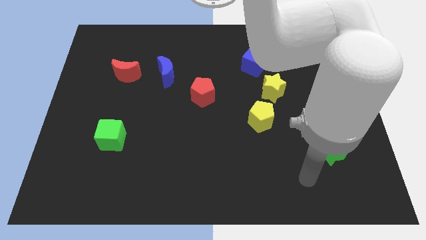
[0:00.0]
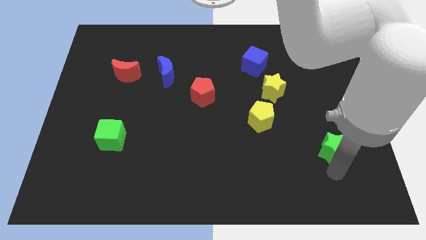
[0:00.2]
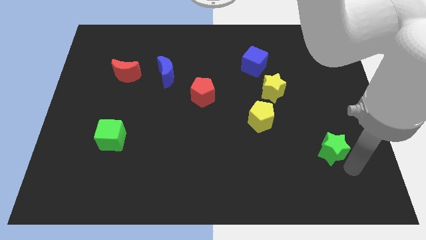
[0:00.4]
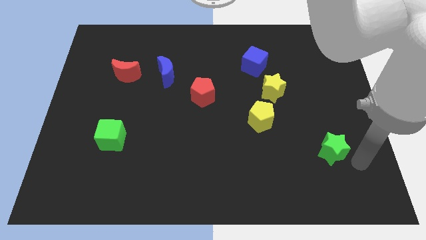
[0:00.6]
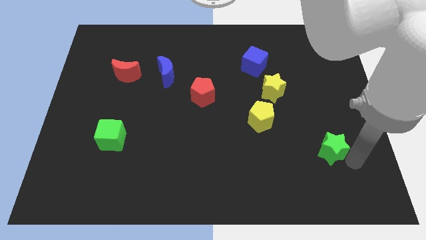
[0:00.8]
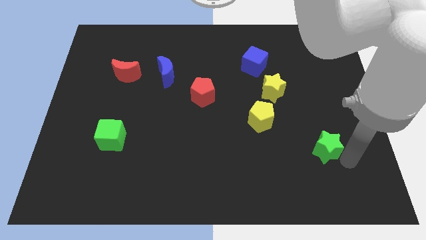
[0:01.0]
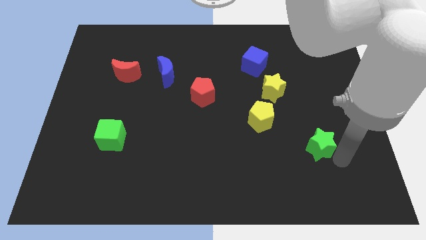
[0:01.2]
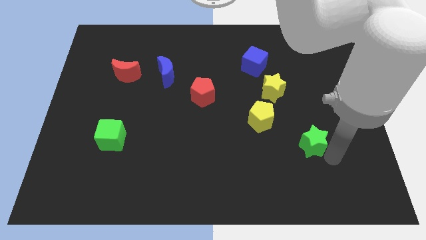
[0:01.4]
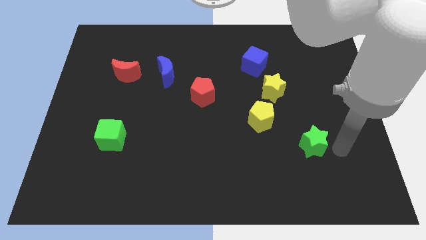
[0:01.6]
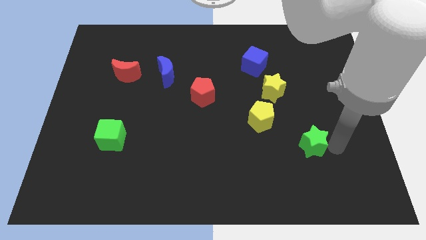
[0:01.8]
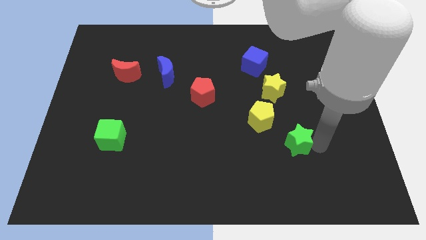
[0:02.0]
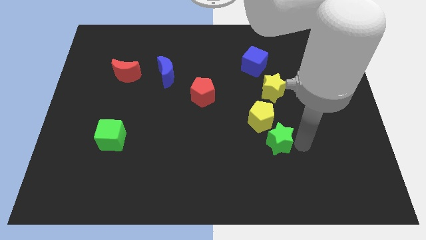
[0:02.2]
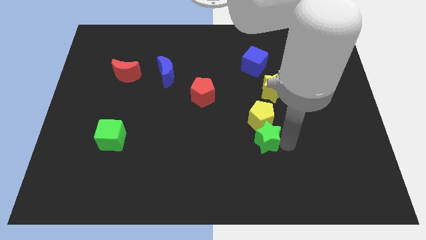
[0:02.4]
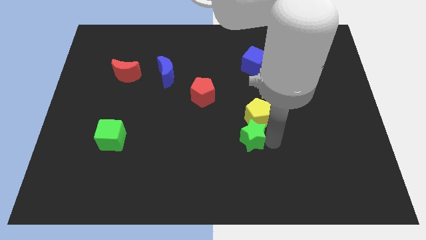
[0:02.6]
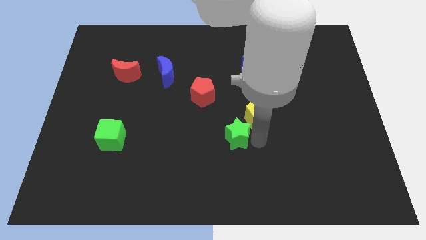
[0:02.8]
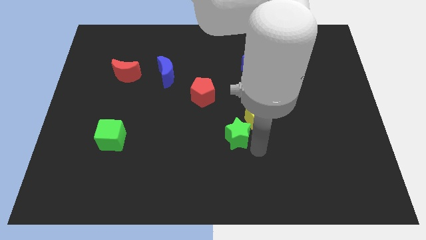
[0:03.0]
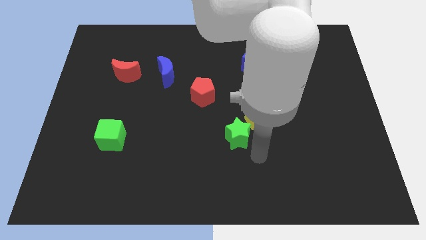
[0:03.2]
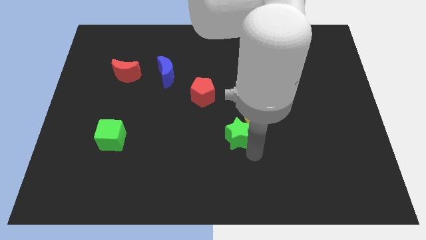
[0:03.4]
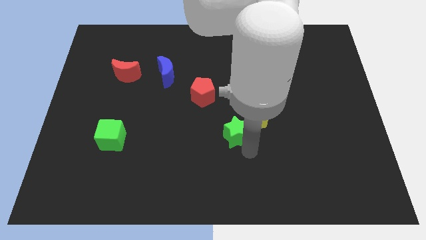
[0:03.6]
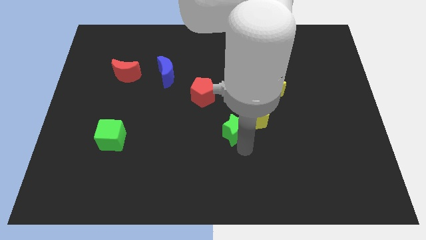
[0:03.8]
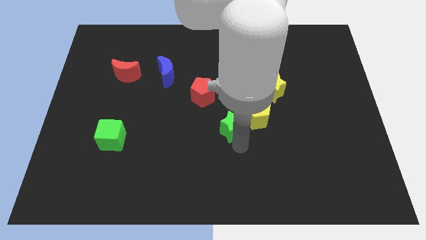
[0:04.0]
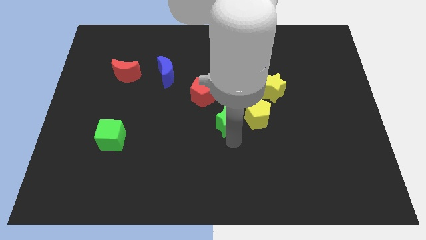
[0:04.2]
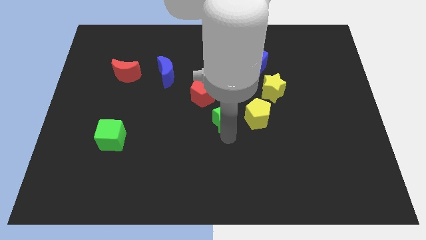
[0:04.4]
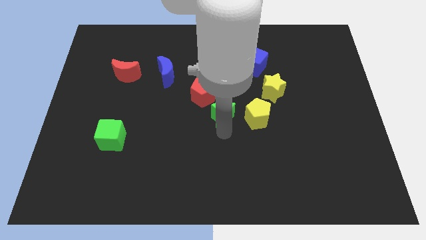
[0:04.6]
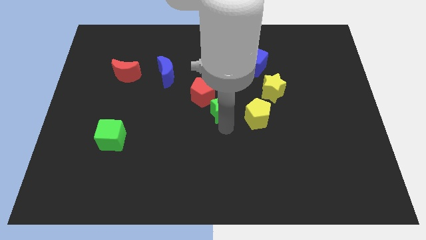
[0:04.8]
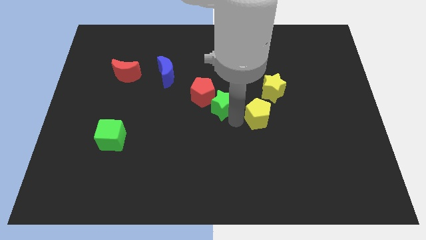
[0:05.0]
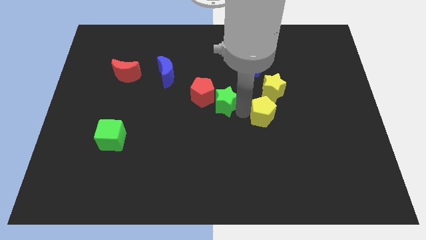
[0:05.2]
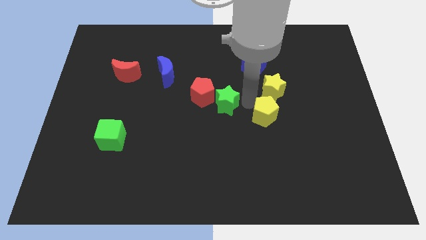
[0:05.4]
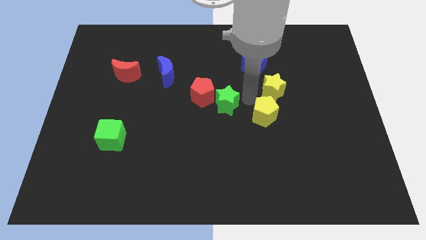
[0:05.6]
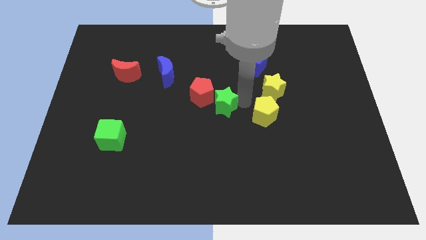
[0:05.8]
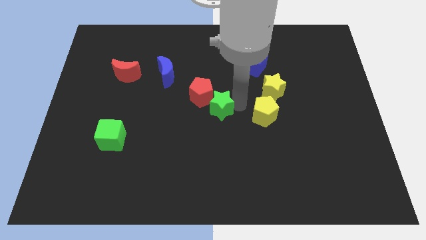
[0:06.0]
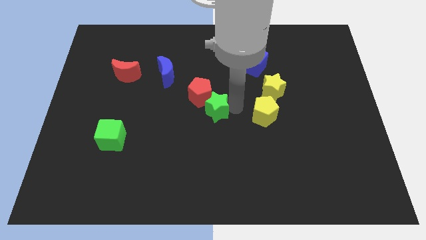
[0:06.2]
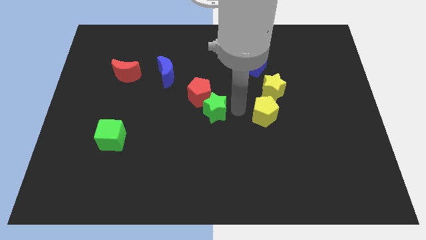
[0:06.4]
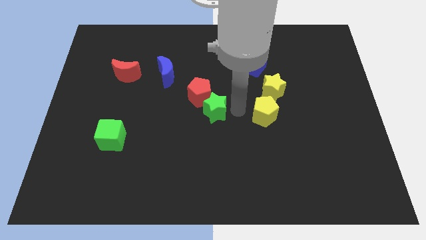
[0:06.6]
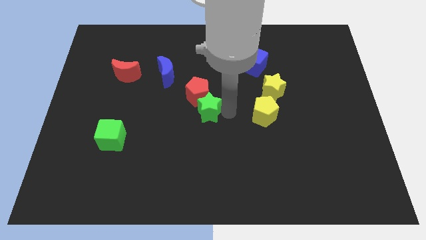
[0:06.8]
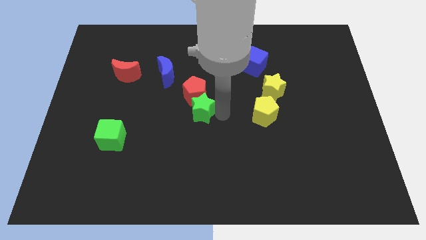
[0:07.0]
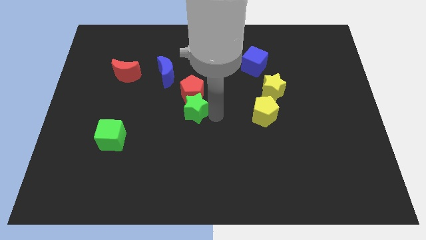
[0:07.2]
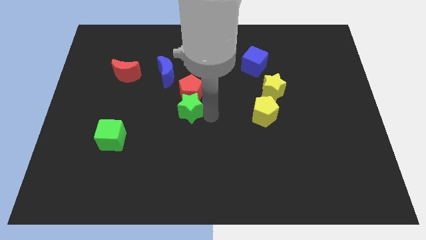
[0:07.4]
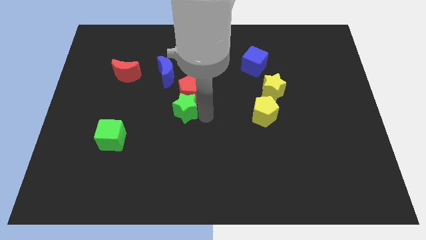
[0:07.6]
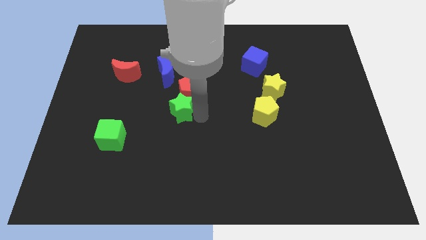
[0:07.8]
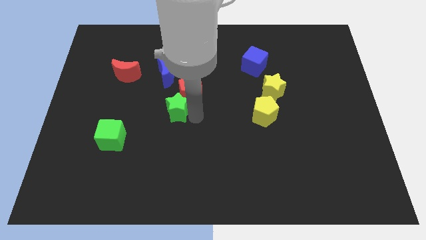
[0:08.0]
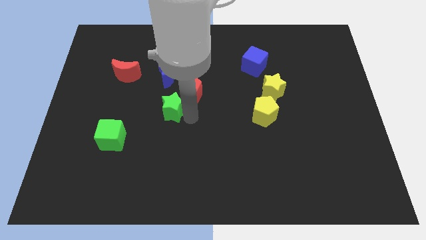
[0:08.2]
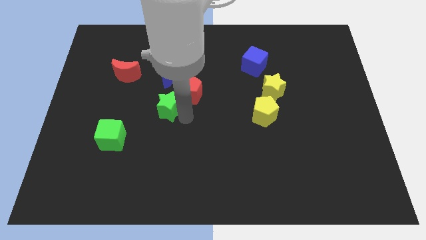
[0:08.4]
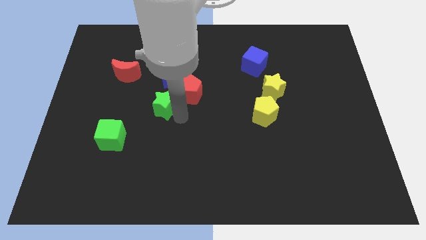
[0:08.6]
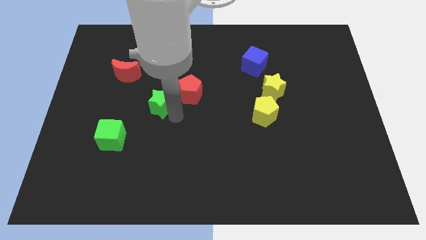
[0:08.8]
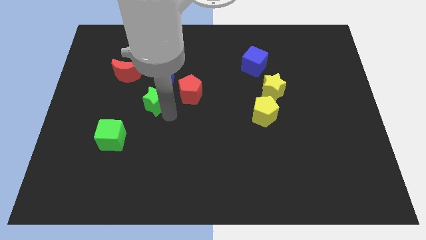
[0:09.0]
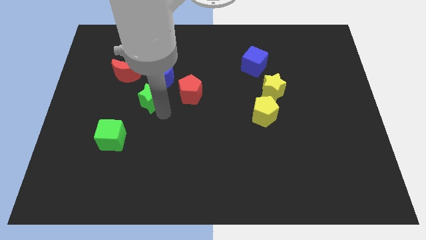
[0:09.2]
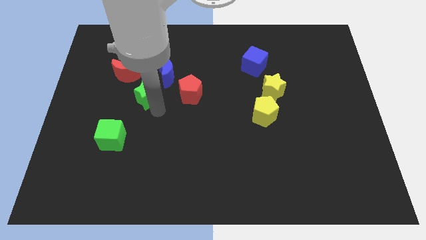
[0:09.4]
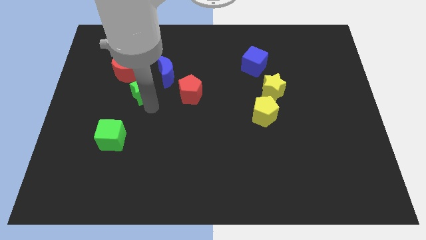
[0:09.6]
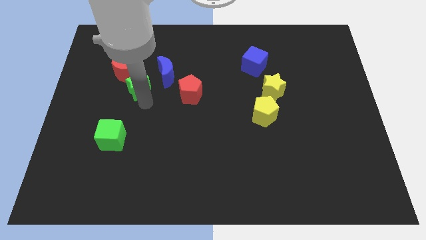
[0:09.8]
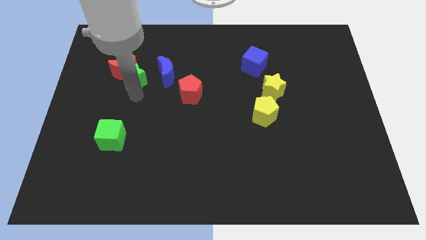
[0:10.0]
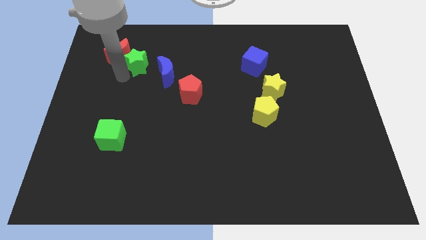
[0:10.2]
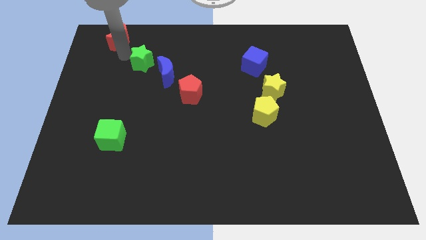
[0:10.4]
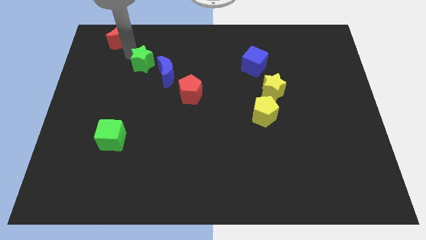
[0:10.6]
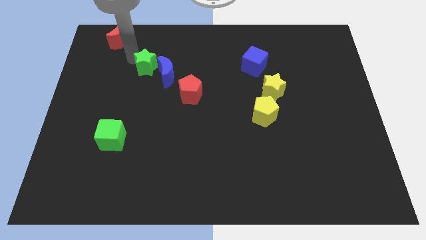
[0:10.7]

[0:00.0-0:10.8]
move the green star to the blue moon

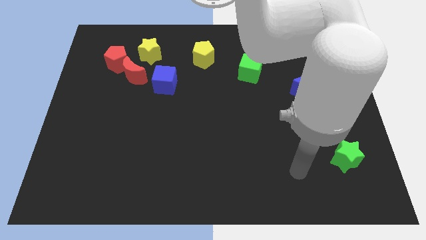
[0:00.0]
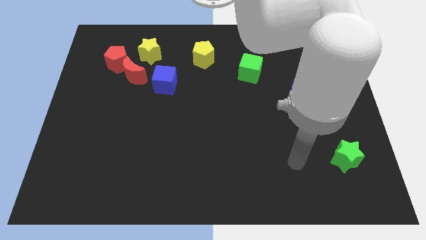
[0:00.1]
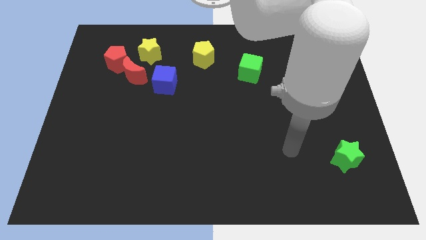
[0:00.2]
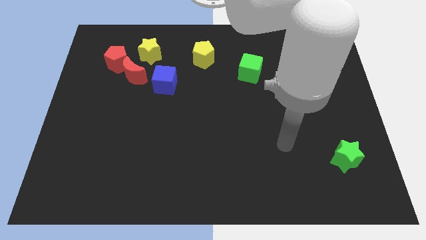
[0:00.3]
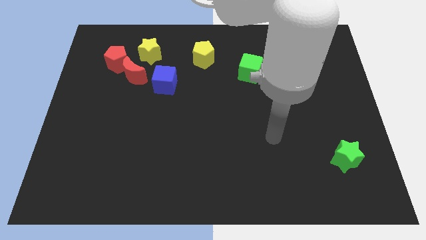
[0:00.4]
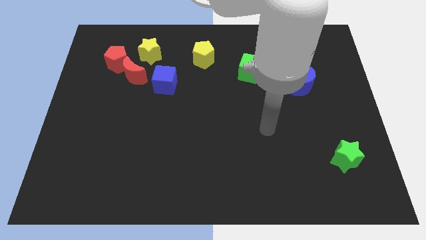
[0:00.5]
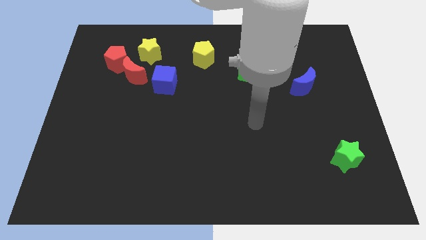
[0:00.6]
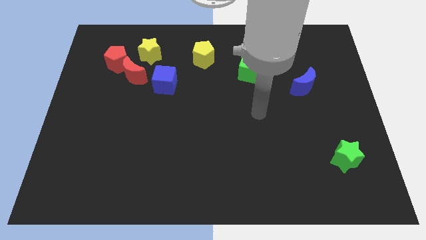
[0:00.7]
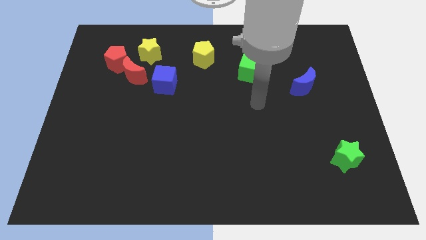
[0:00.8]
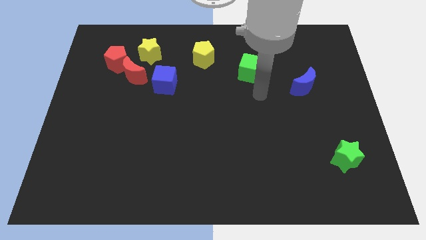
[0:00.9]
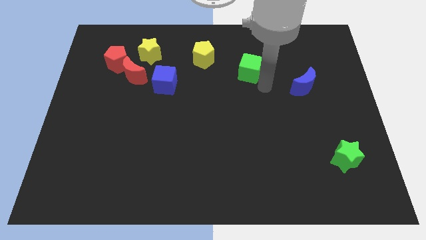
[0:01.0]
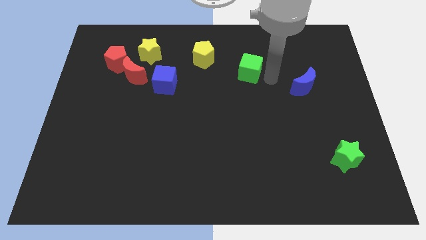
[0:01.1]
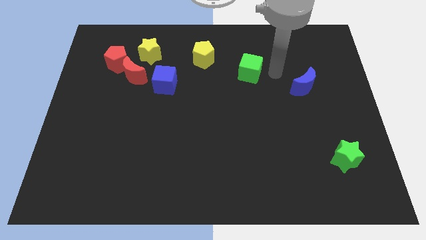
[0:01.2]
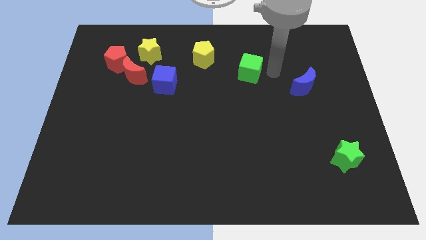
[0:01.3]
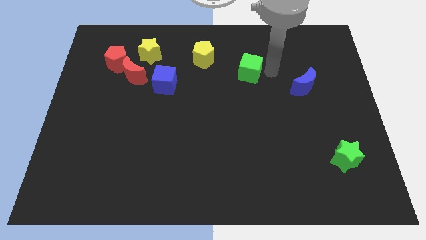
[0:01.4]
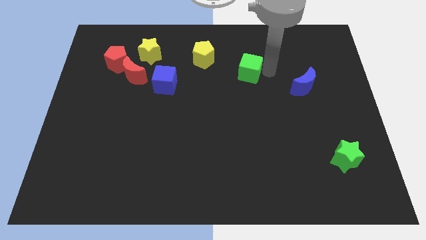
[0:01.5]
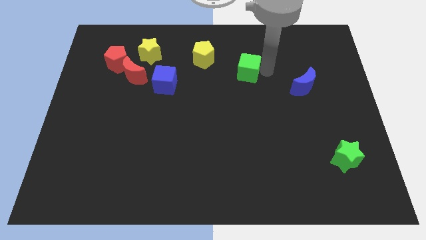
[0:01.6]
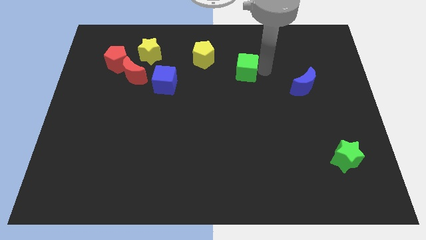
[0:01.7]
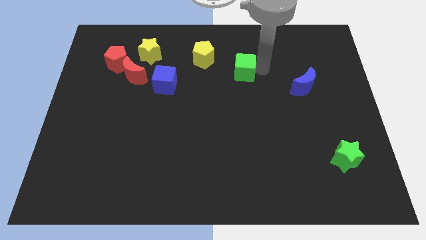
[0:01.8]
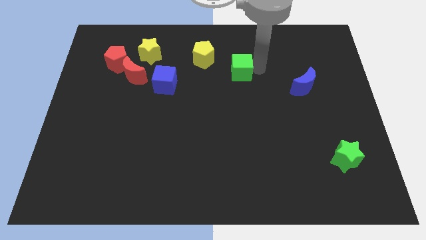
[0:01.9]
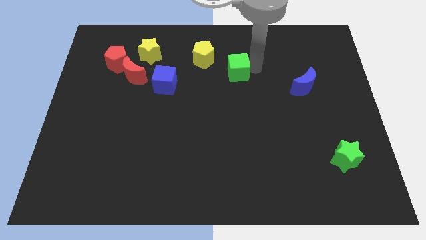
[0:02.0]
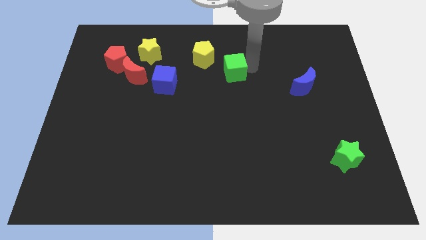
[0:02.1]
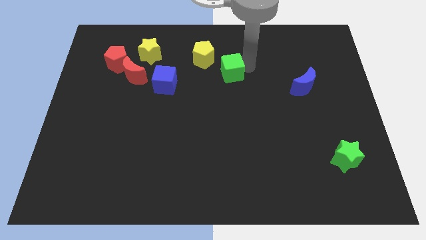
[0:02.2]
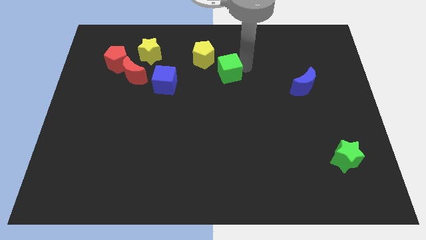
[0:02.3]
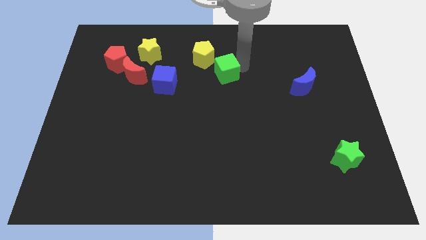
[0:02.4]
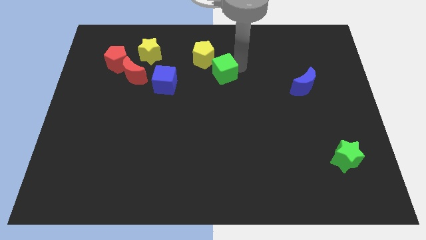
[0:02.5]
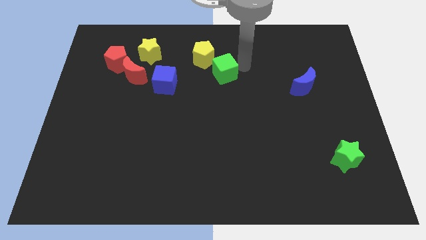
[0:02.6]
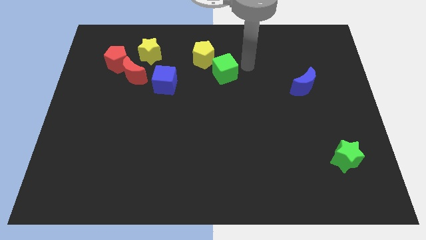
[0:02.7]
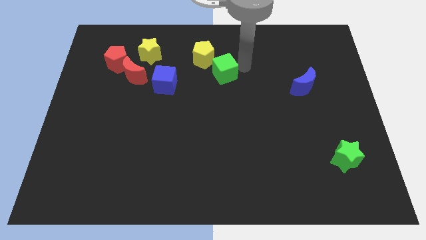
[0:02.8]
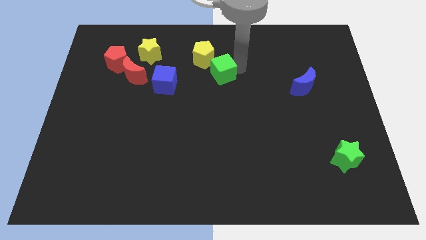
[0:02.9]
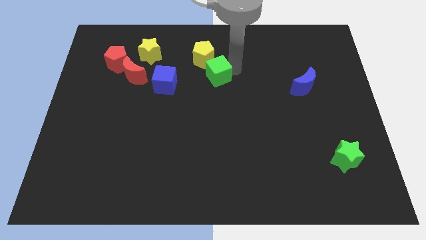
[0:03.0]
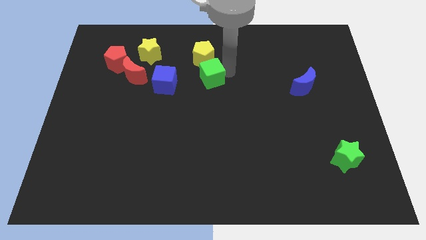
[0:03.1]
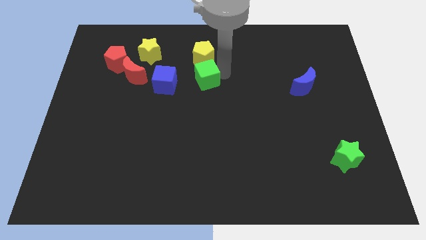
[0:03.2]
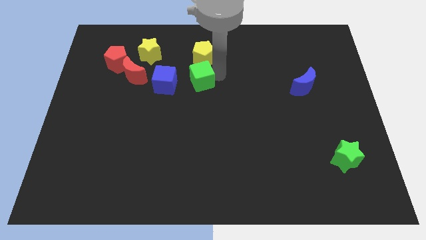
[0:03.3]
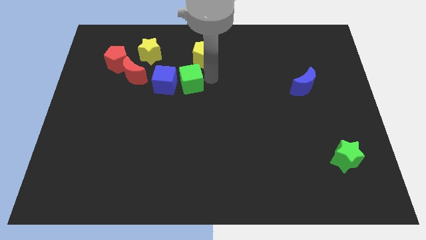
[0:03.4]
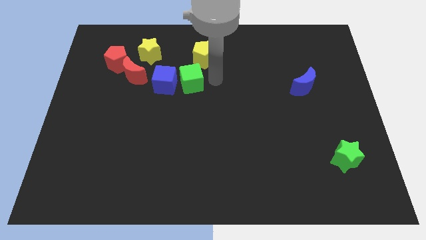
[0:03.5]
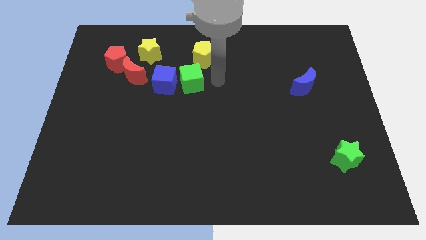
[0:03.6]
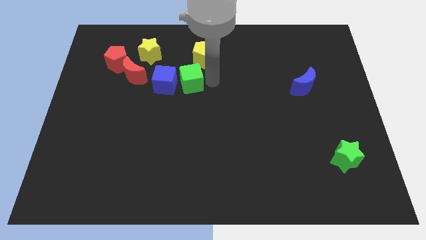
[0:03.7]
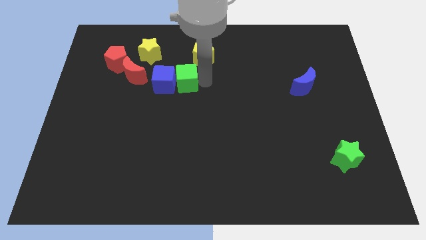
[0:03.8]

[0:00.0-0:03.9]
push the green cube towards the blue cube
